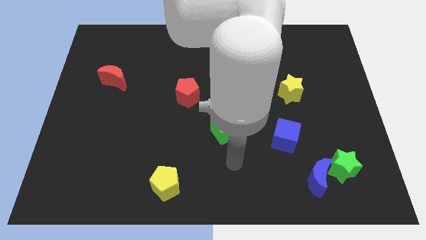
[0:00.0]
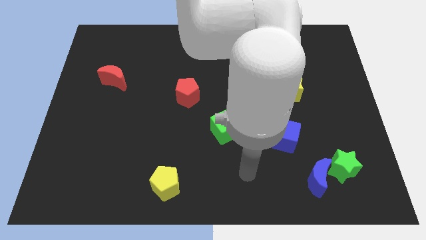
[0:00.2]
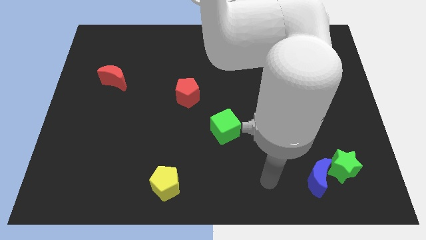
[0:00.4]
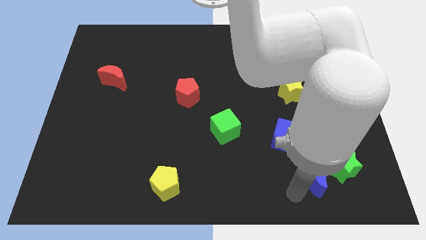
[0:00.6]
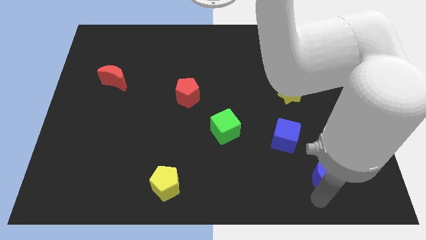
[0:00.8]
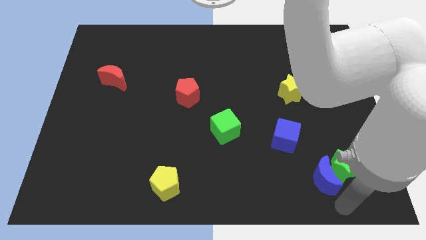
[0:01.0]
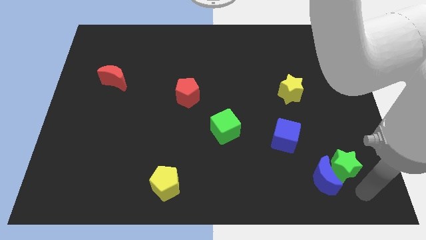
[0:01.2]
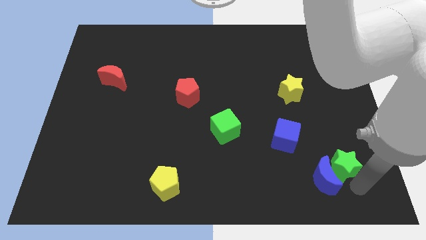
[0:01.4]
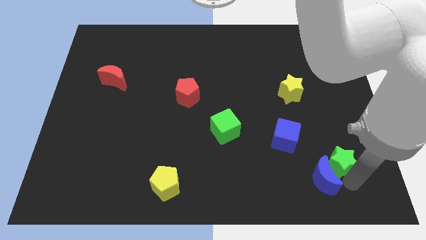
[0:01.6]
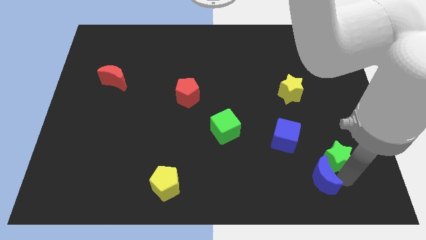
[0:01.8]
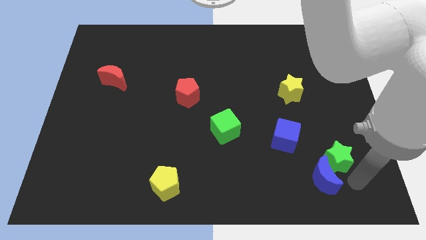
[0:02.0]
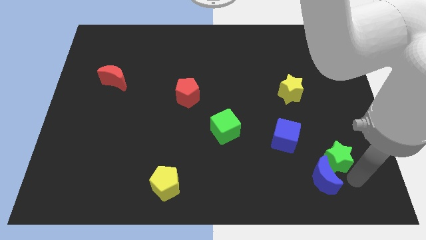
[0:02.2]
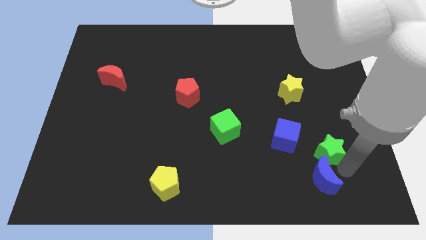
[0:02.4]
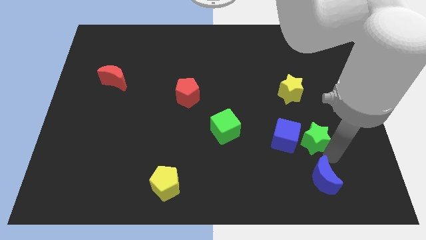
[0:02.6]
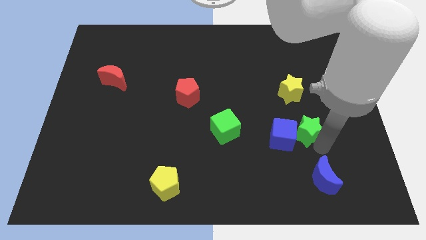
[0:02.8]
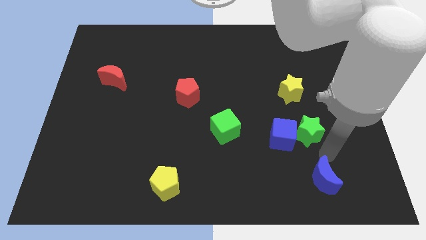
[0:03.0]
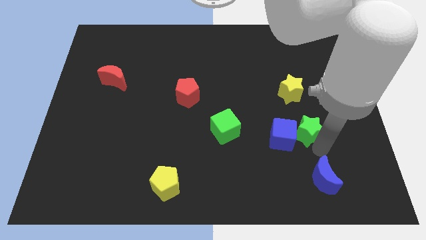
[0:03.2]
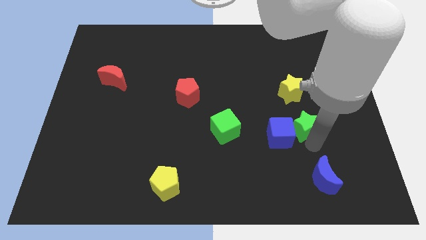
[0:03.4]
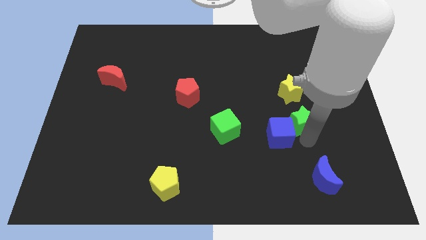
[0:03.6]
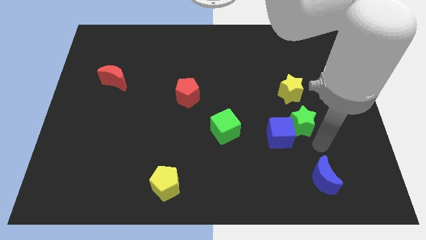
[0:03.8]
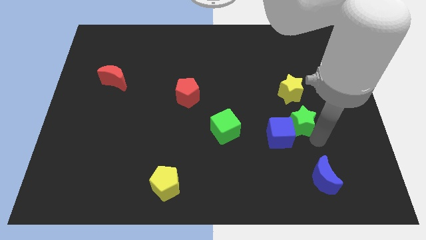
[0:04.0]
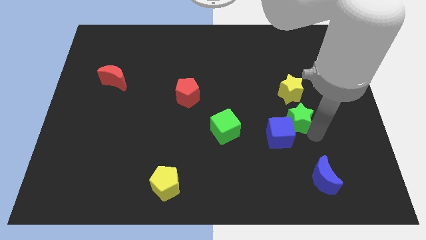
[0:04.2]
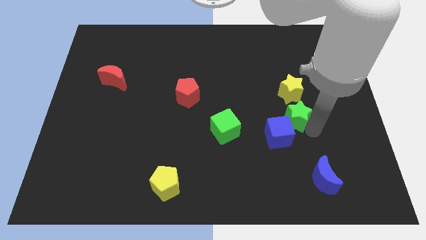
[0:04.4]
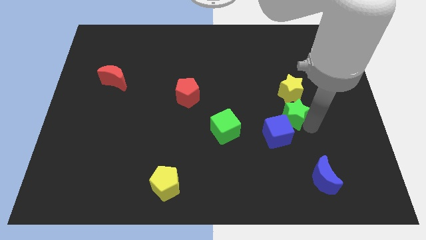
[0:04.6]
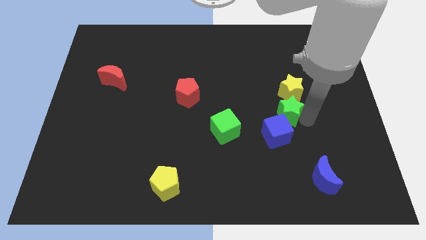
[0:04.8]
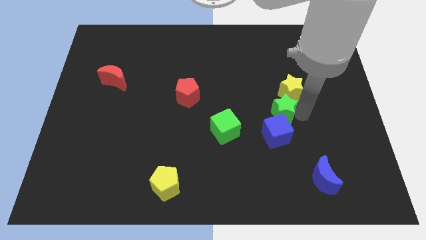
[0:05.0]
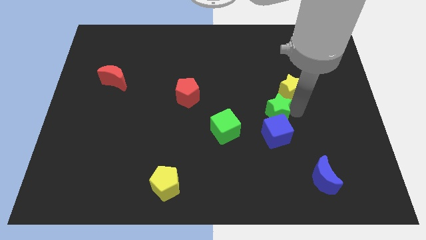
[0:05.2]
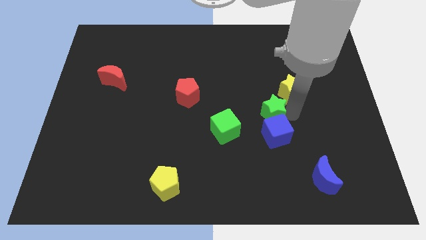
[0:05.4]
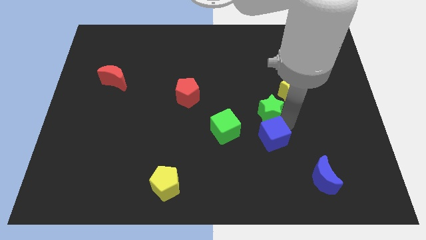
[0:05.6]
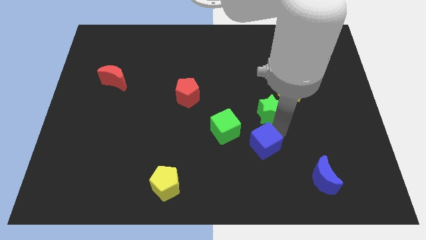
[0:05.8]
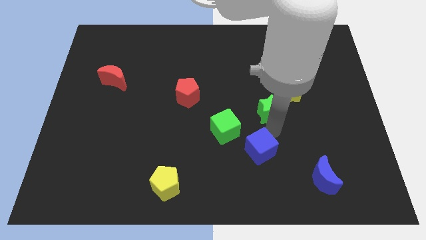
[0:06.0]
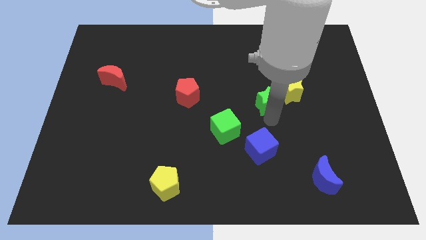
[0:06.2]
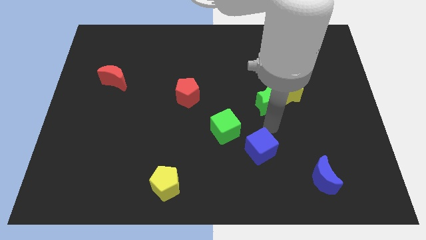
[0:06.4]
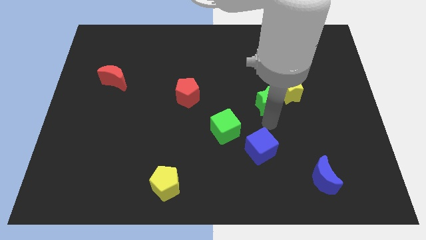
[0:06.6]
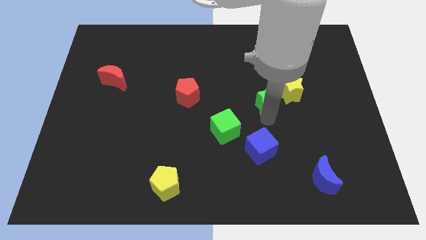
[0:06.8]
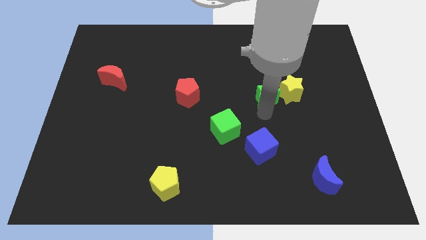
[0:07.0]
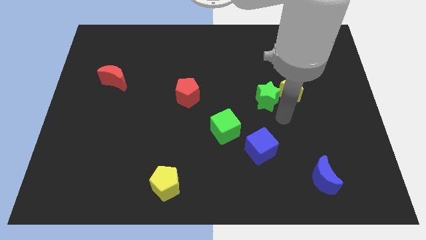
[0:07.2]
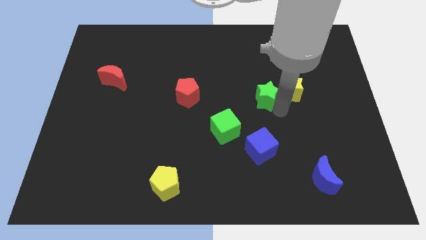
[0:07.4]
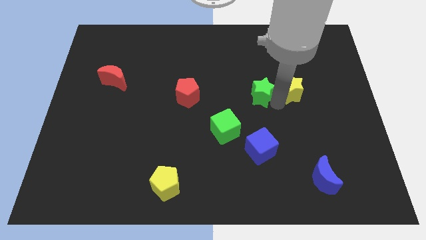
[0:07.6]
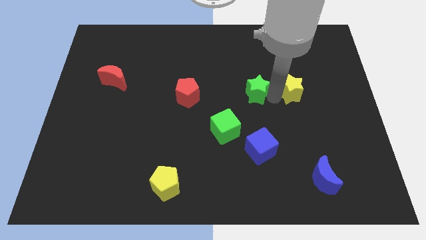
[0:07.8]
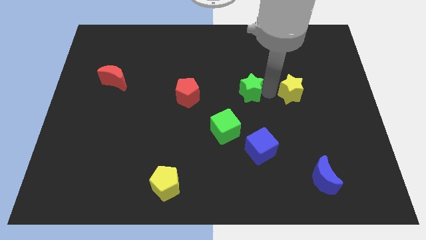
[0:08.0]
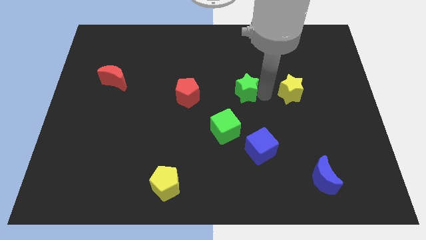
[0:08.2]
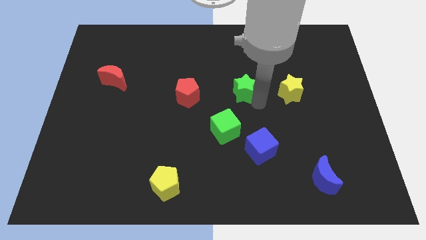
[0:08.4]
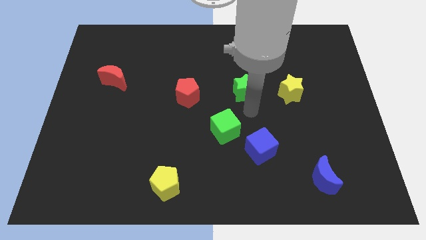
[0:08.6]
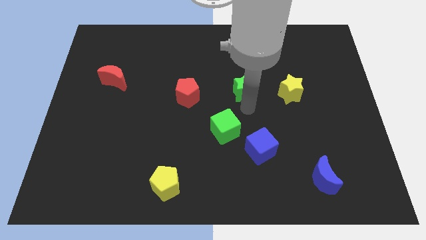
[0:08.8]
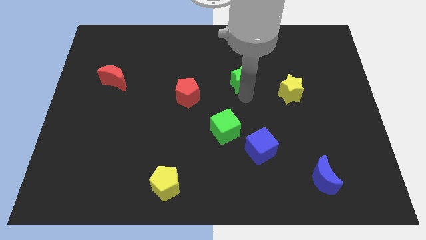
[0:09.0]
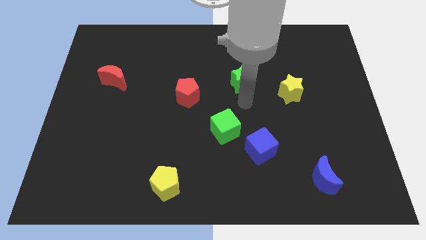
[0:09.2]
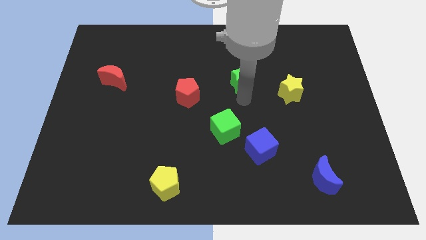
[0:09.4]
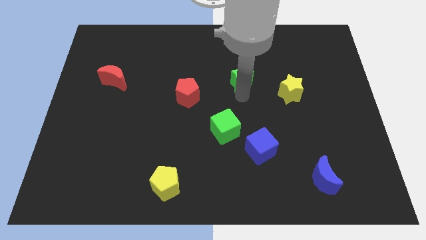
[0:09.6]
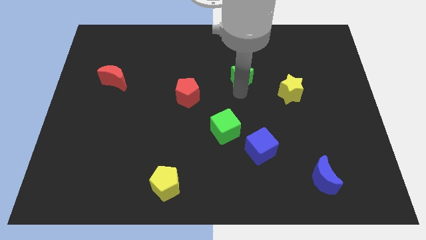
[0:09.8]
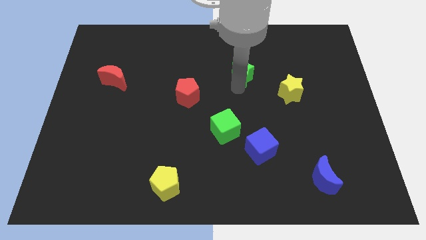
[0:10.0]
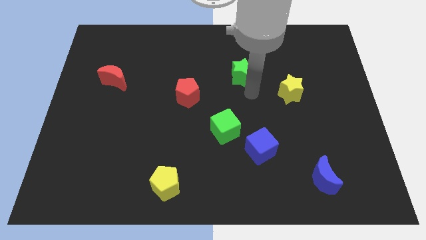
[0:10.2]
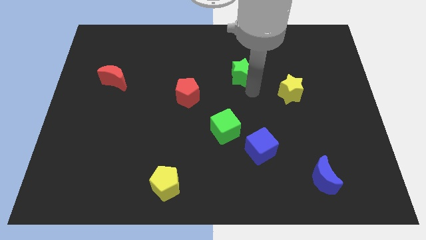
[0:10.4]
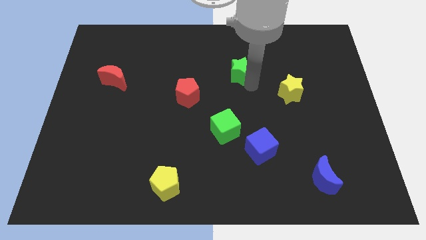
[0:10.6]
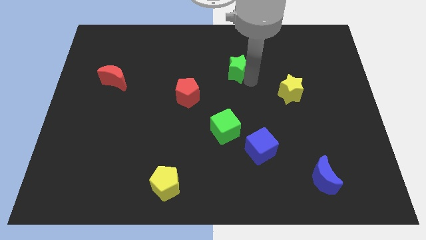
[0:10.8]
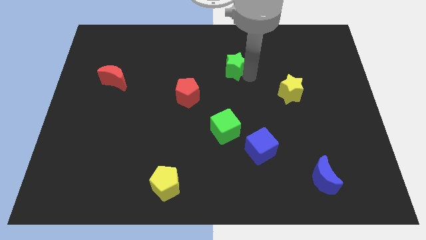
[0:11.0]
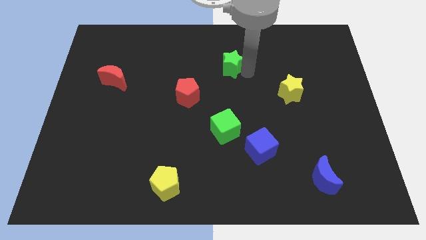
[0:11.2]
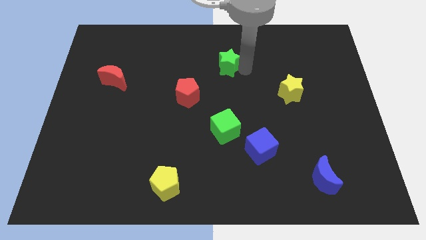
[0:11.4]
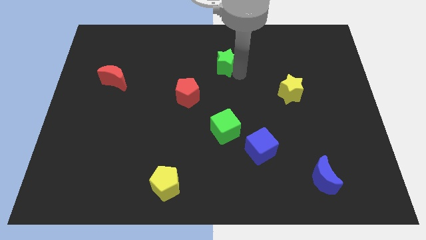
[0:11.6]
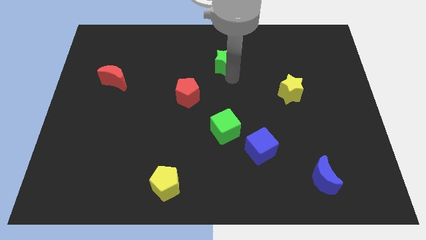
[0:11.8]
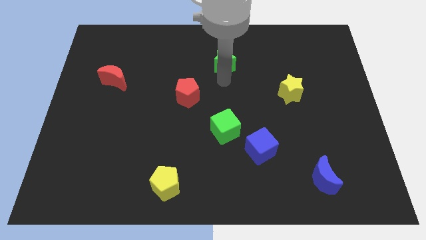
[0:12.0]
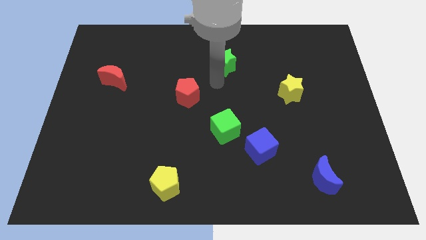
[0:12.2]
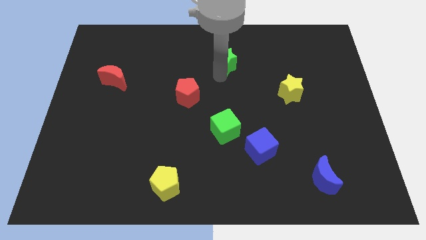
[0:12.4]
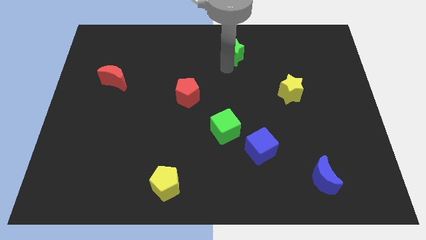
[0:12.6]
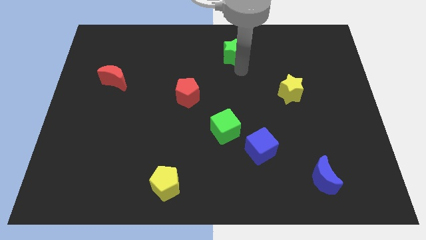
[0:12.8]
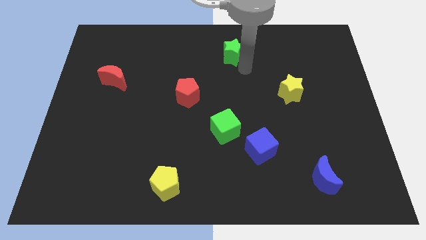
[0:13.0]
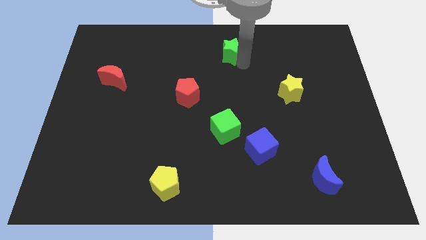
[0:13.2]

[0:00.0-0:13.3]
slide the green star to the top side

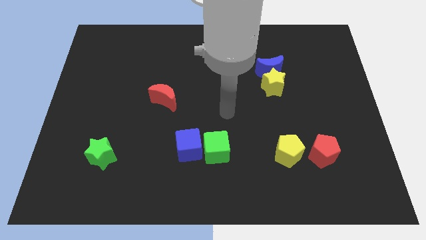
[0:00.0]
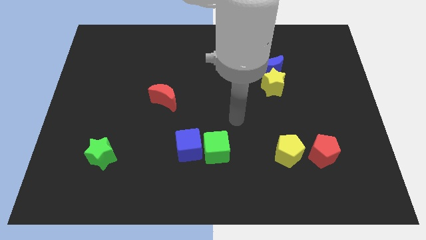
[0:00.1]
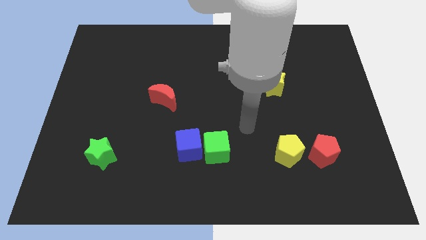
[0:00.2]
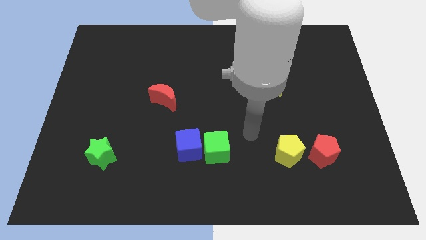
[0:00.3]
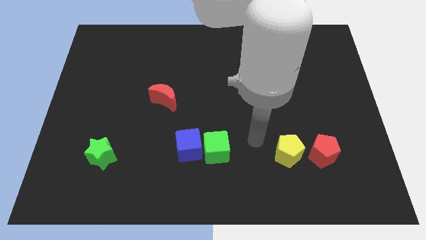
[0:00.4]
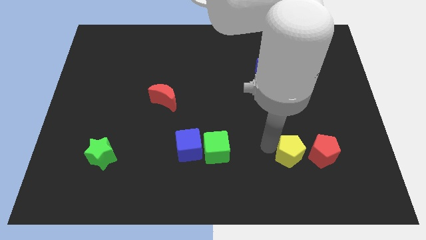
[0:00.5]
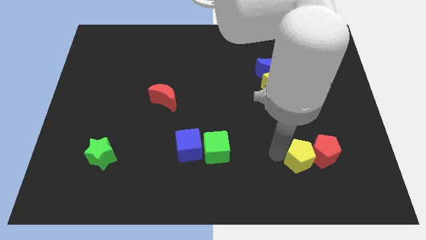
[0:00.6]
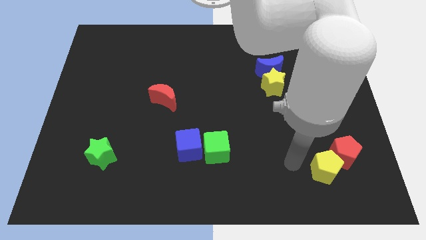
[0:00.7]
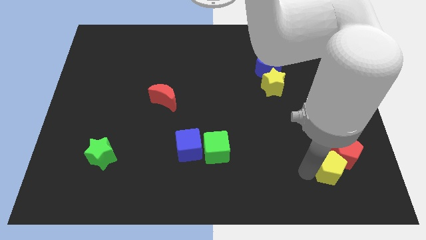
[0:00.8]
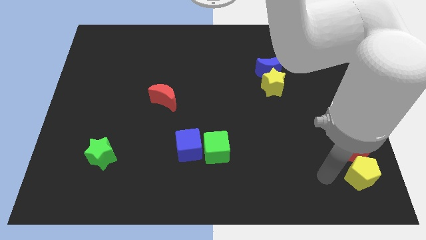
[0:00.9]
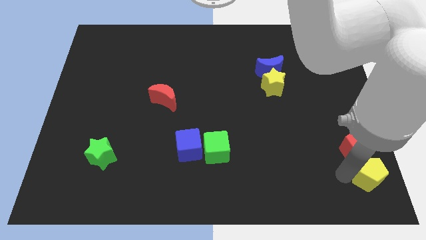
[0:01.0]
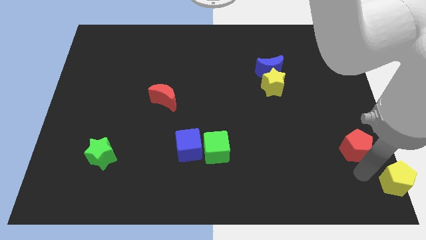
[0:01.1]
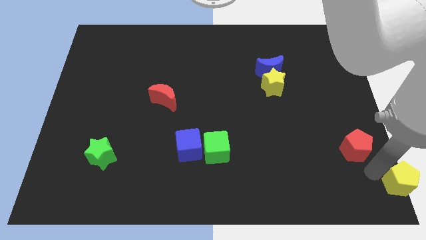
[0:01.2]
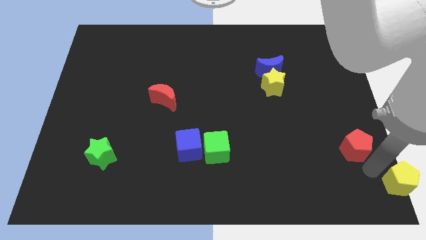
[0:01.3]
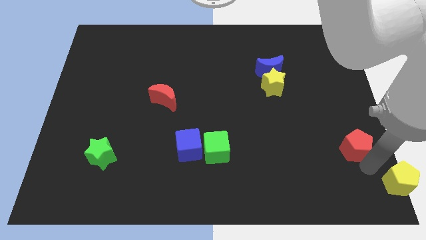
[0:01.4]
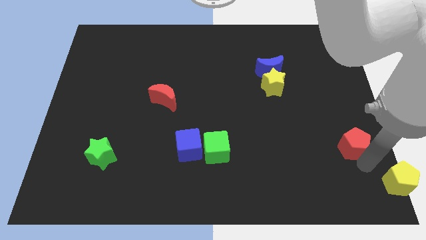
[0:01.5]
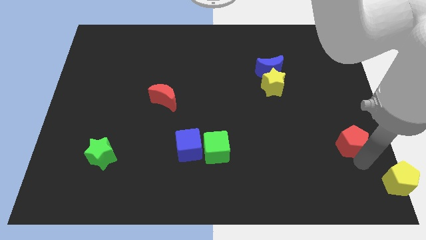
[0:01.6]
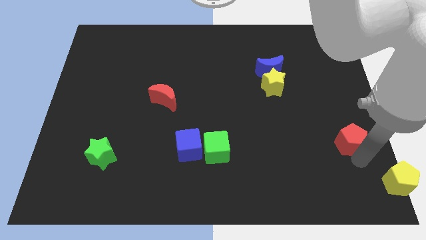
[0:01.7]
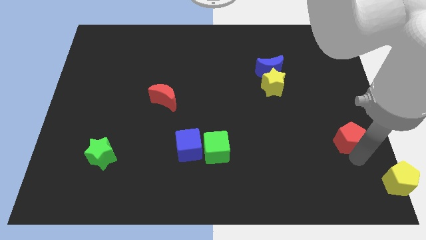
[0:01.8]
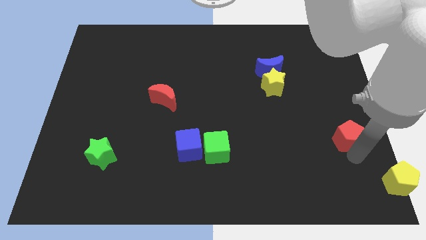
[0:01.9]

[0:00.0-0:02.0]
slide the red pentagon to the right side
